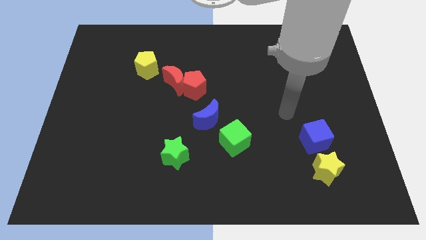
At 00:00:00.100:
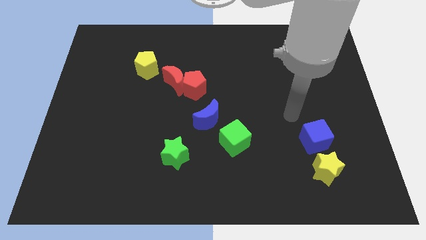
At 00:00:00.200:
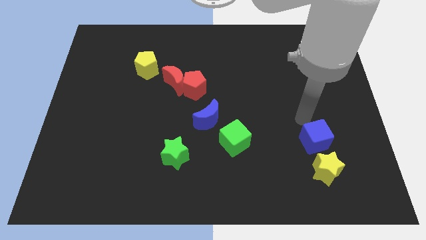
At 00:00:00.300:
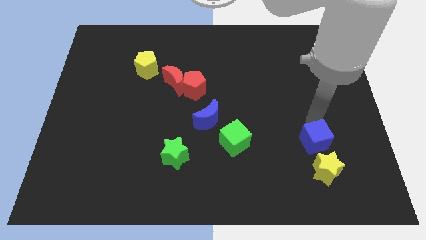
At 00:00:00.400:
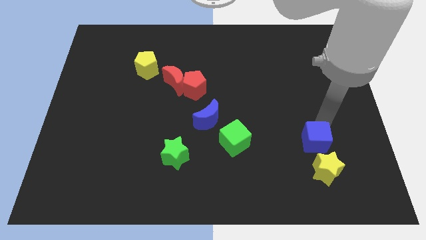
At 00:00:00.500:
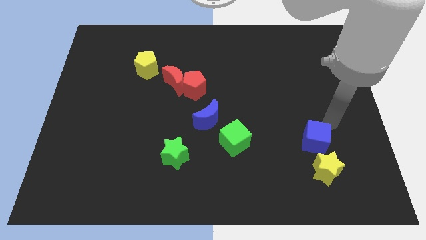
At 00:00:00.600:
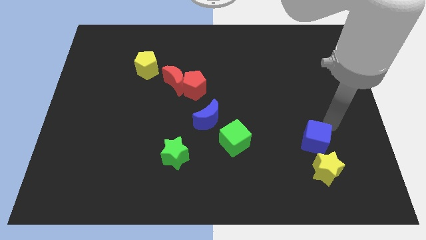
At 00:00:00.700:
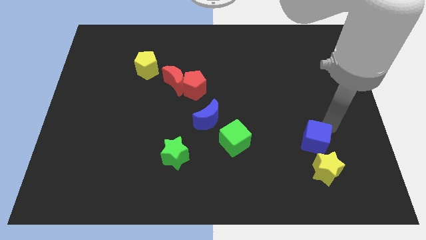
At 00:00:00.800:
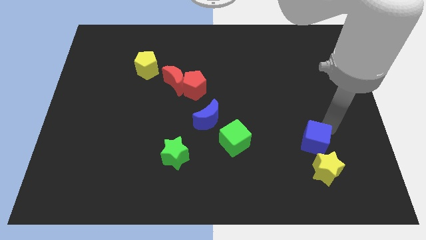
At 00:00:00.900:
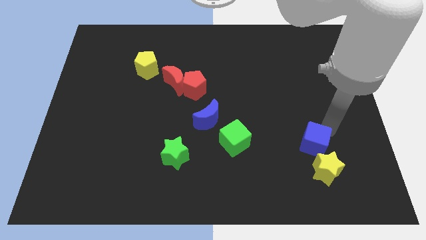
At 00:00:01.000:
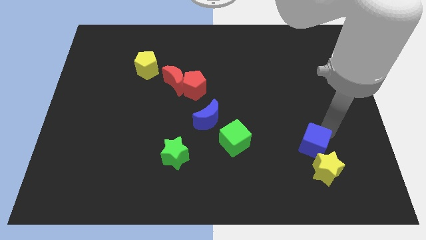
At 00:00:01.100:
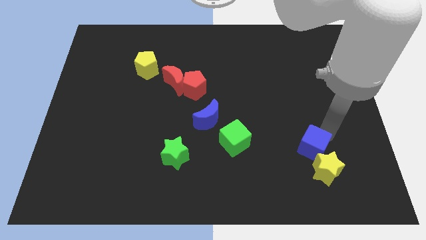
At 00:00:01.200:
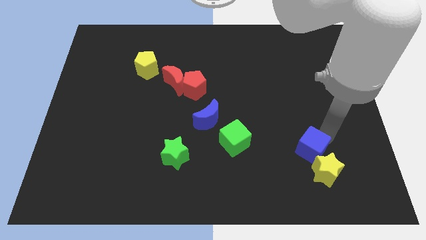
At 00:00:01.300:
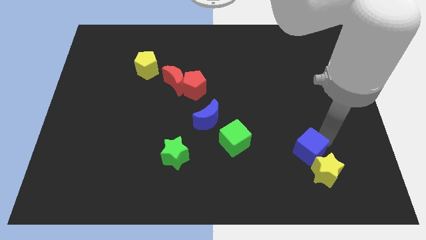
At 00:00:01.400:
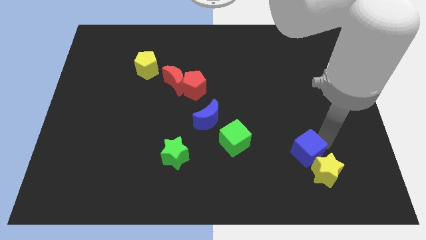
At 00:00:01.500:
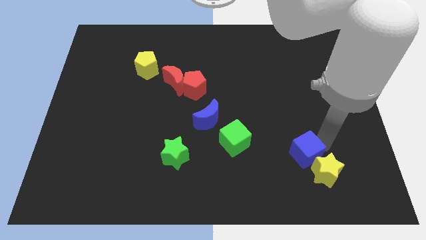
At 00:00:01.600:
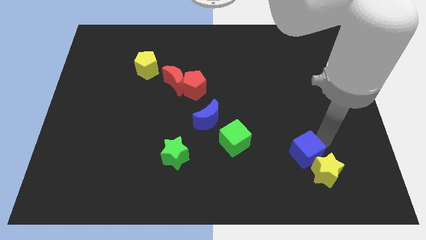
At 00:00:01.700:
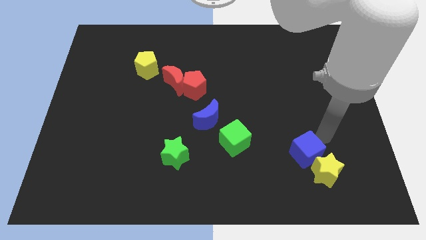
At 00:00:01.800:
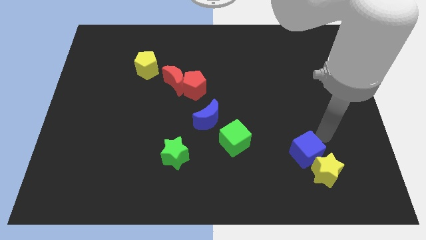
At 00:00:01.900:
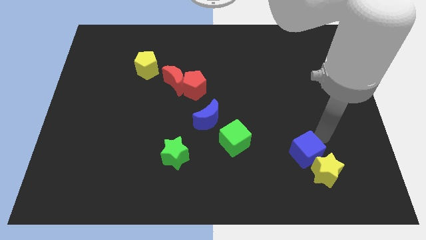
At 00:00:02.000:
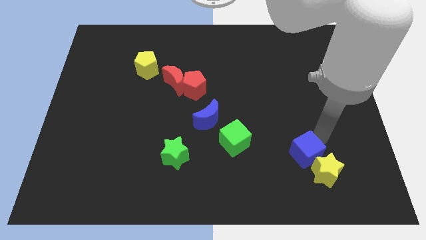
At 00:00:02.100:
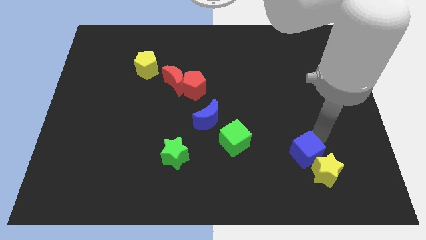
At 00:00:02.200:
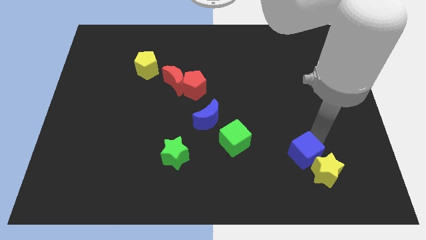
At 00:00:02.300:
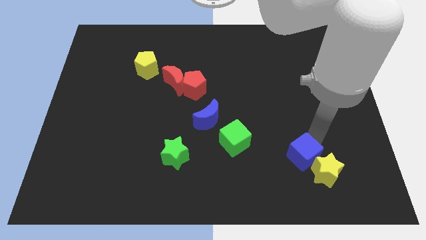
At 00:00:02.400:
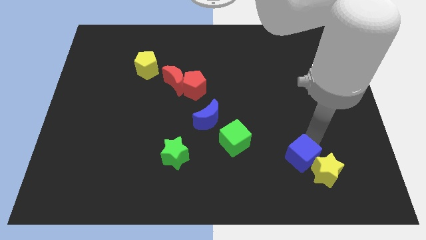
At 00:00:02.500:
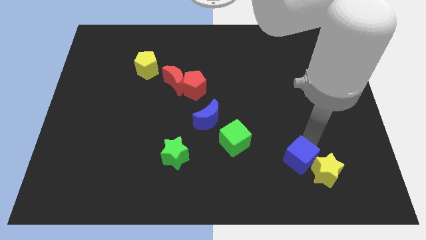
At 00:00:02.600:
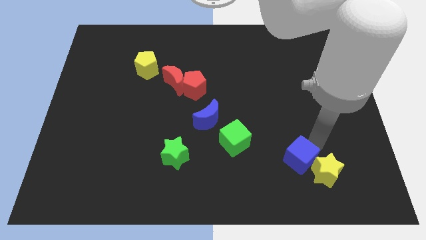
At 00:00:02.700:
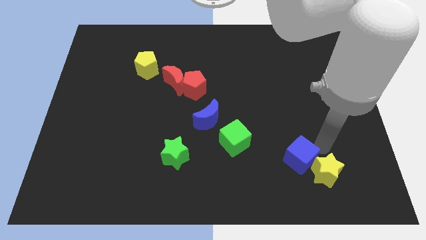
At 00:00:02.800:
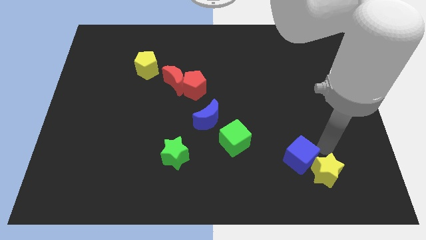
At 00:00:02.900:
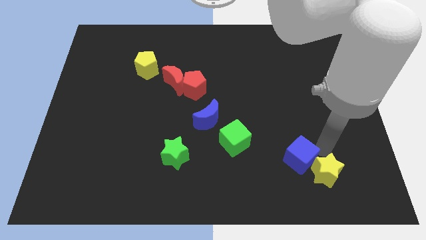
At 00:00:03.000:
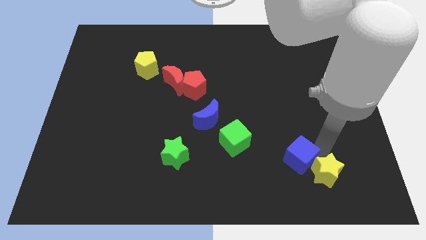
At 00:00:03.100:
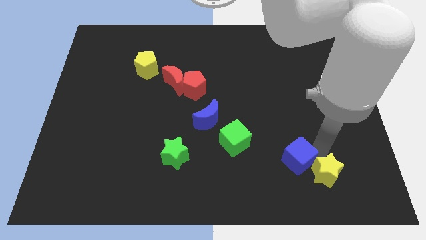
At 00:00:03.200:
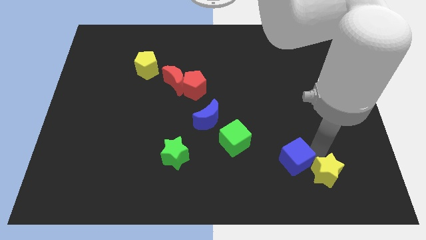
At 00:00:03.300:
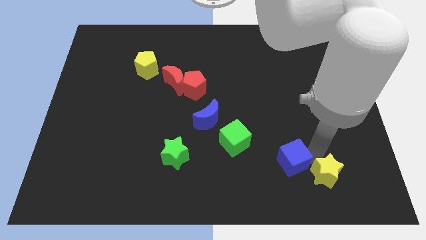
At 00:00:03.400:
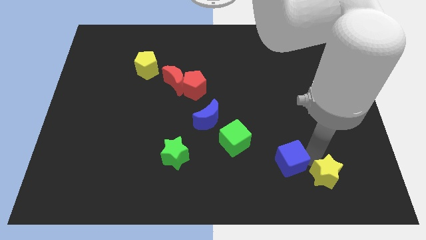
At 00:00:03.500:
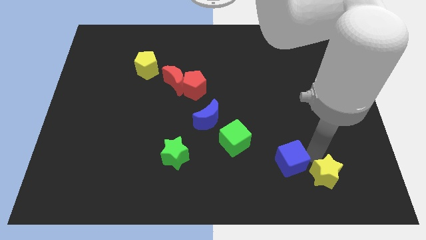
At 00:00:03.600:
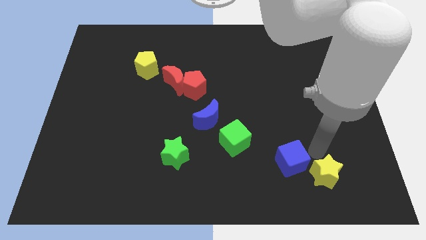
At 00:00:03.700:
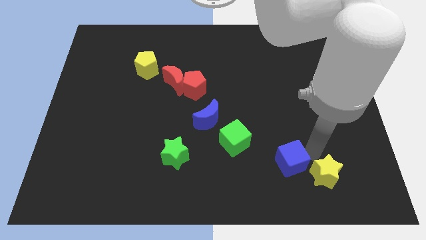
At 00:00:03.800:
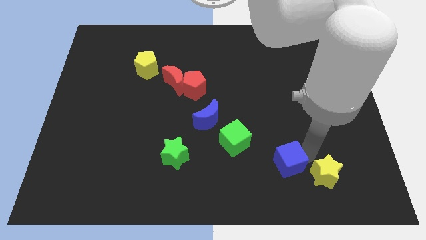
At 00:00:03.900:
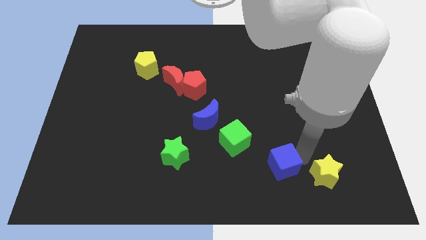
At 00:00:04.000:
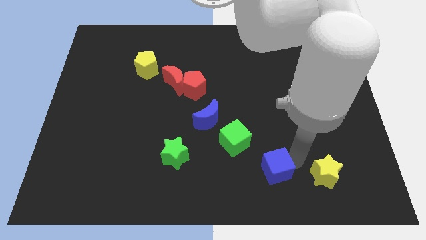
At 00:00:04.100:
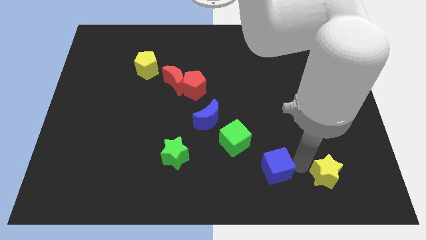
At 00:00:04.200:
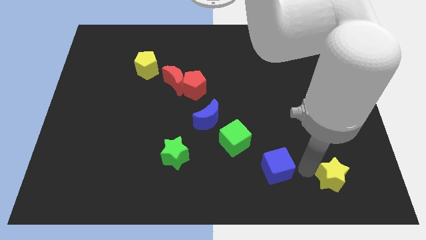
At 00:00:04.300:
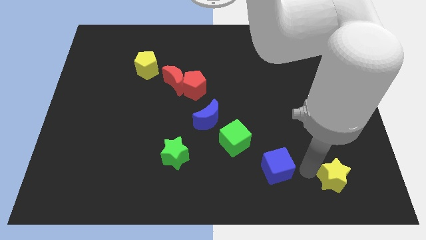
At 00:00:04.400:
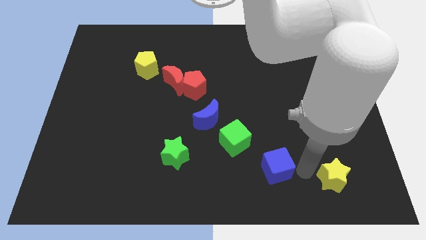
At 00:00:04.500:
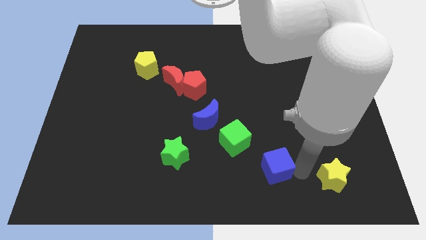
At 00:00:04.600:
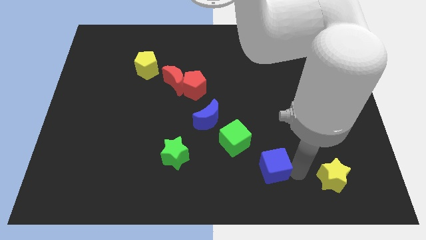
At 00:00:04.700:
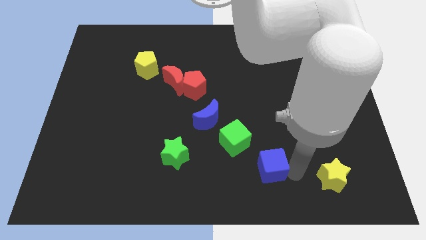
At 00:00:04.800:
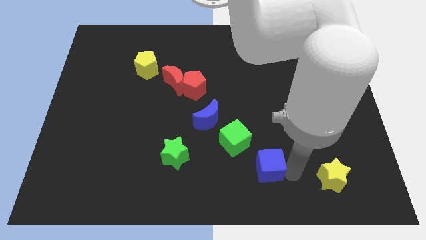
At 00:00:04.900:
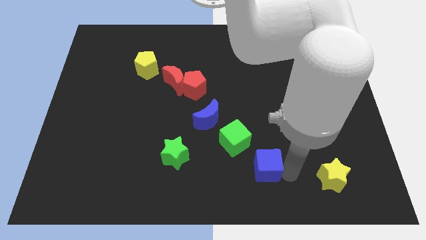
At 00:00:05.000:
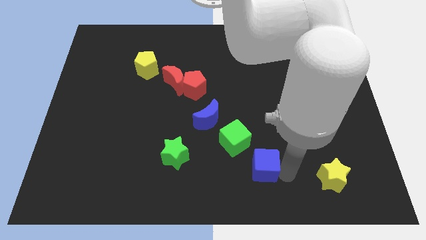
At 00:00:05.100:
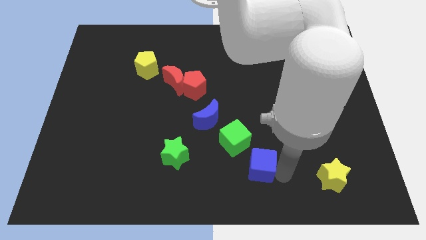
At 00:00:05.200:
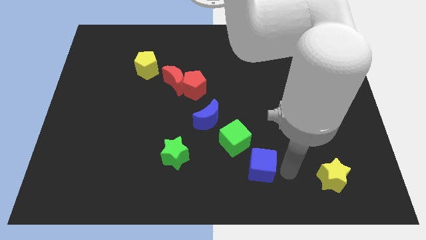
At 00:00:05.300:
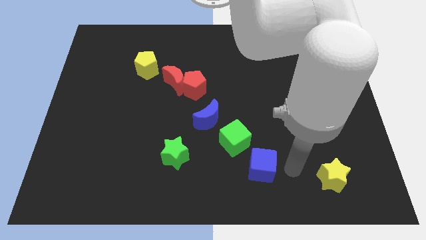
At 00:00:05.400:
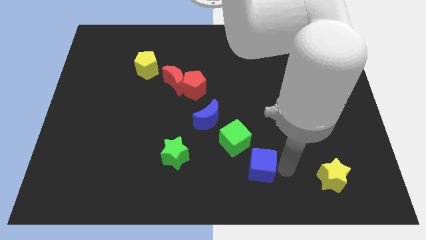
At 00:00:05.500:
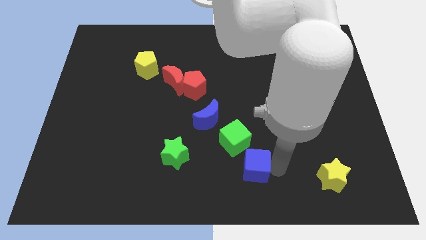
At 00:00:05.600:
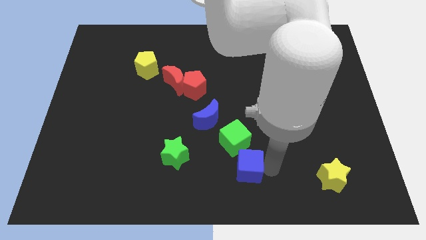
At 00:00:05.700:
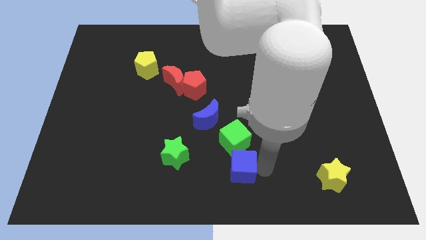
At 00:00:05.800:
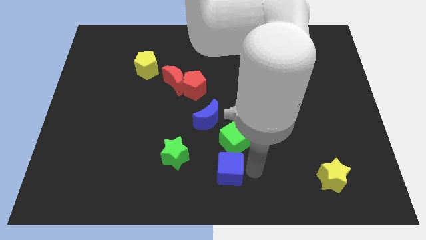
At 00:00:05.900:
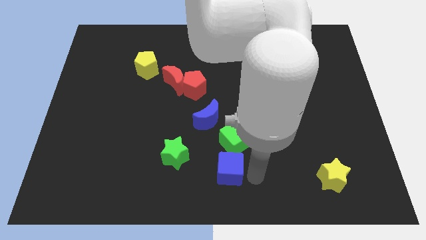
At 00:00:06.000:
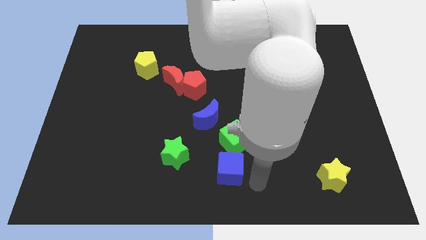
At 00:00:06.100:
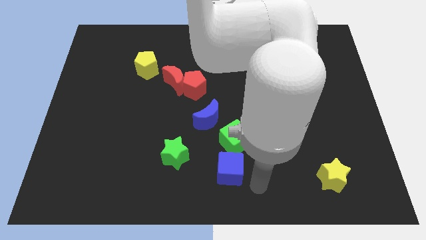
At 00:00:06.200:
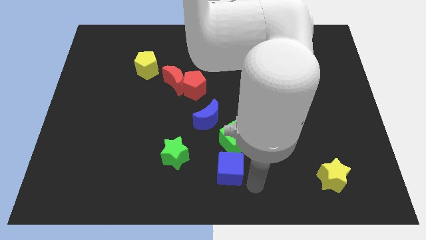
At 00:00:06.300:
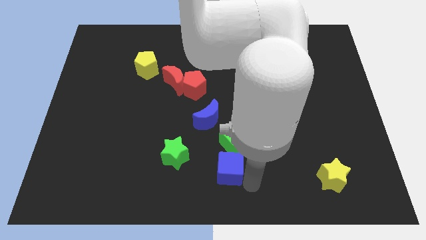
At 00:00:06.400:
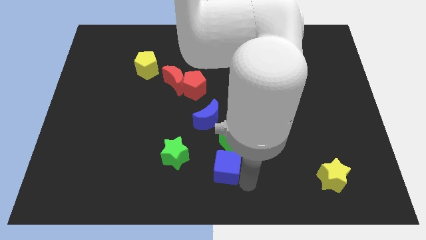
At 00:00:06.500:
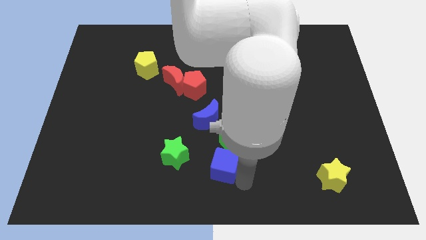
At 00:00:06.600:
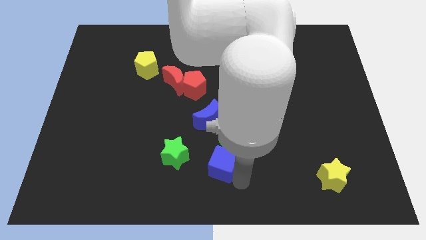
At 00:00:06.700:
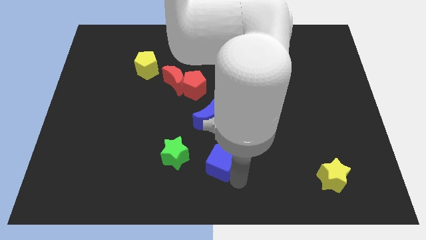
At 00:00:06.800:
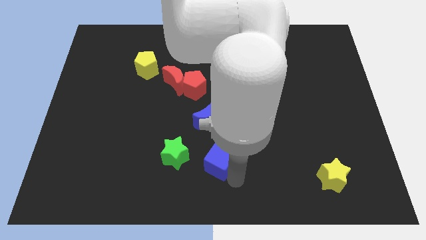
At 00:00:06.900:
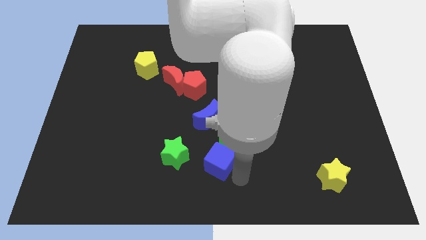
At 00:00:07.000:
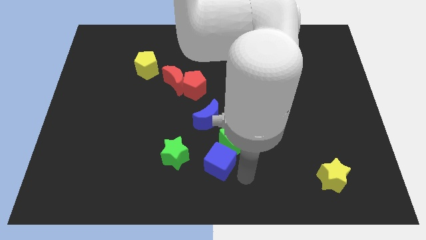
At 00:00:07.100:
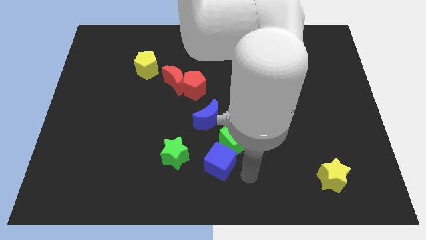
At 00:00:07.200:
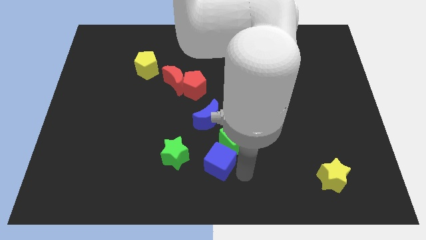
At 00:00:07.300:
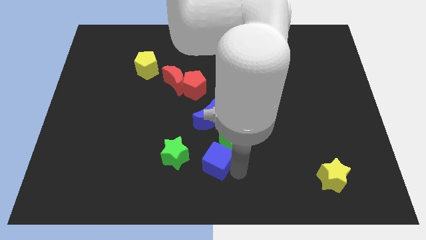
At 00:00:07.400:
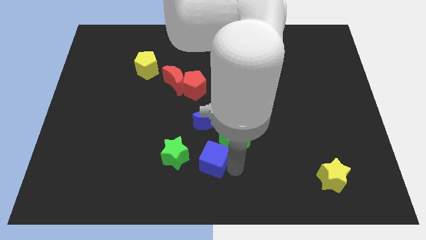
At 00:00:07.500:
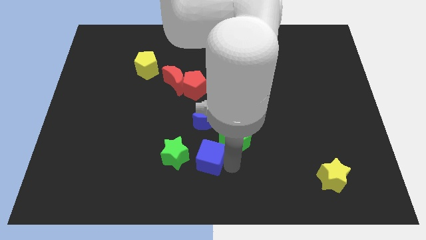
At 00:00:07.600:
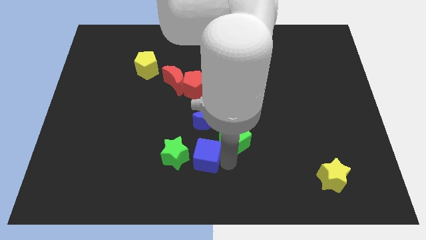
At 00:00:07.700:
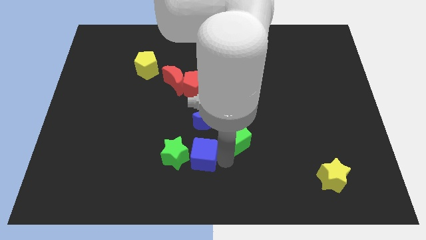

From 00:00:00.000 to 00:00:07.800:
put the blue cube close to the green star
